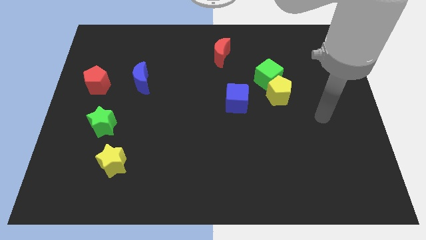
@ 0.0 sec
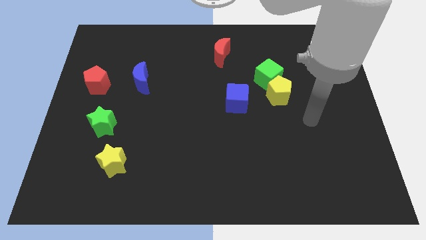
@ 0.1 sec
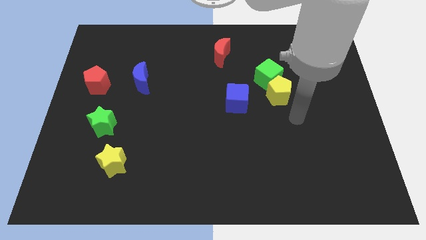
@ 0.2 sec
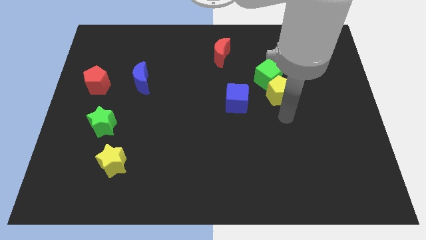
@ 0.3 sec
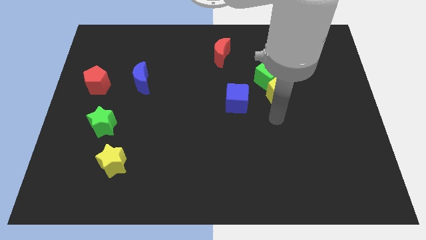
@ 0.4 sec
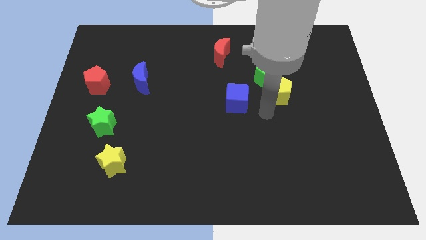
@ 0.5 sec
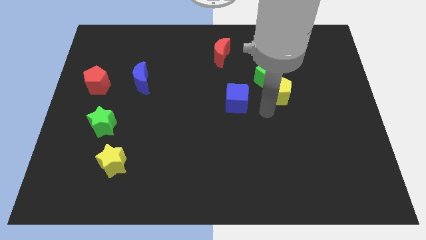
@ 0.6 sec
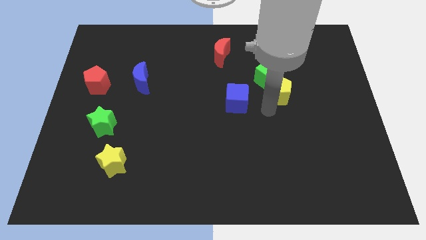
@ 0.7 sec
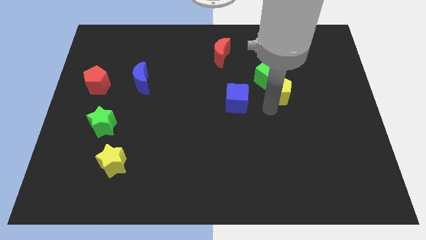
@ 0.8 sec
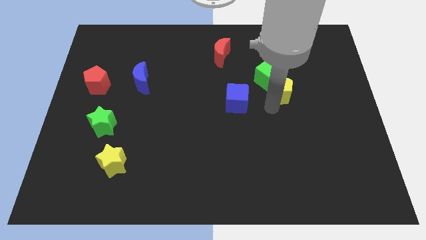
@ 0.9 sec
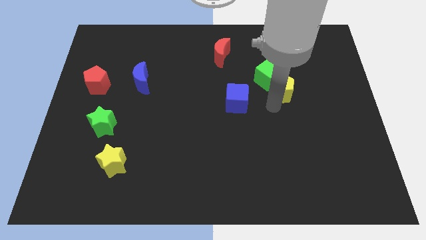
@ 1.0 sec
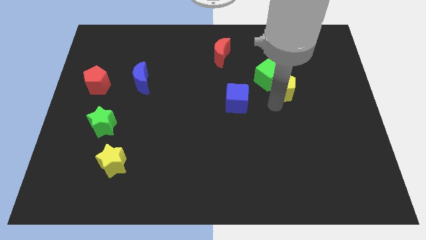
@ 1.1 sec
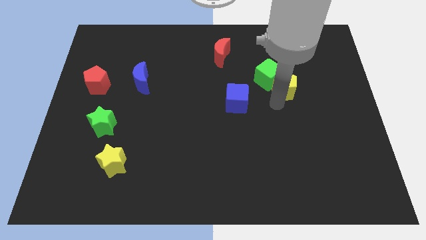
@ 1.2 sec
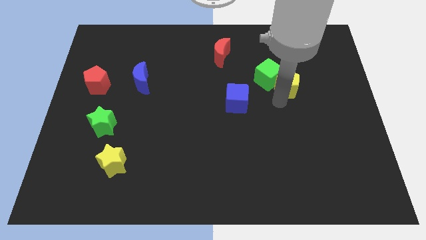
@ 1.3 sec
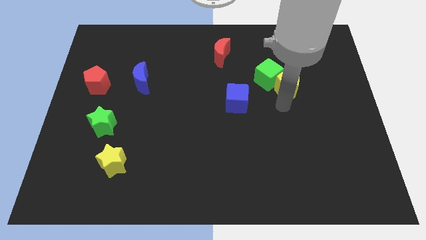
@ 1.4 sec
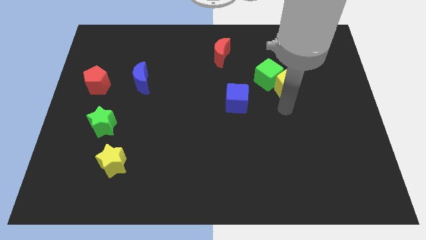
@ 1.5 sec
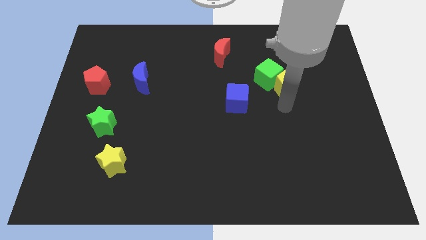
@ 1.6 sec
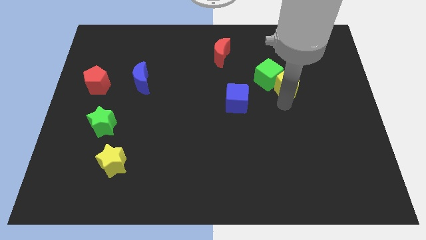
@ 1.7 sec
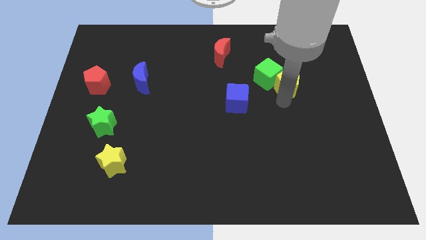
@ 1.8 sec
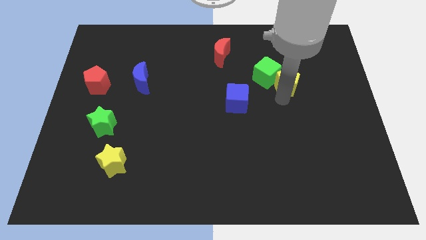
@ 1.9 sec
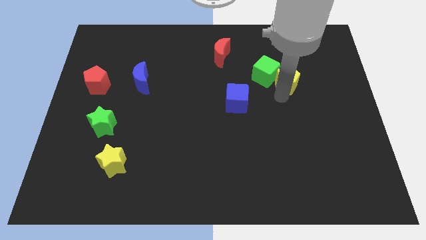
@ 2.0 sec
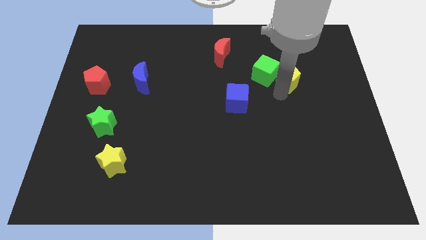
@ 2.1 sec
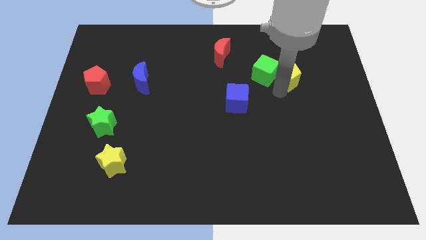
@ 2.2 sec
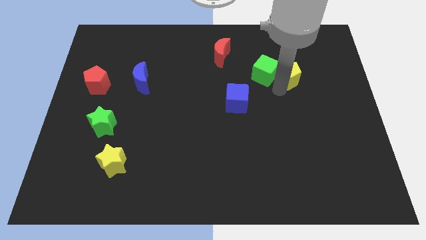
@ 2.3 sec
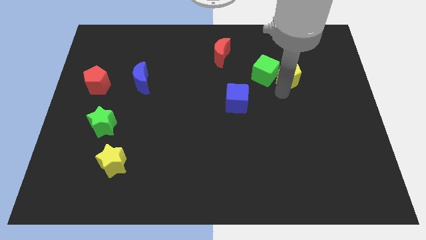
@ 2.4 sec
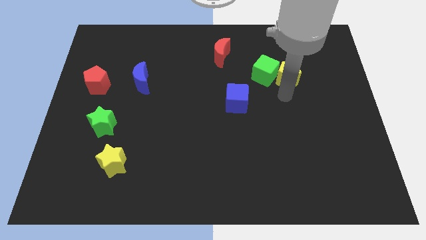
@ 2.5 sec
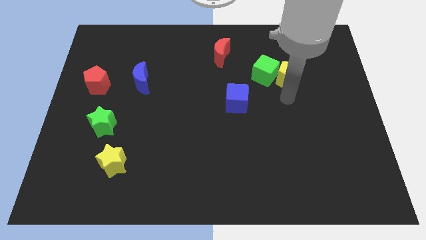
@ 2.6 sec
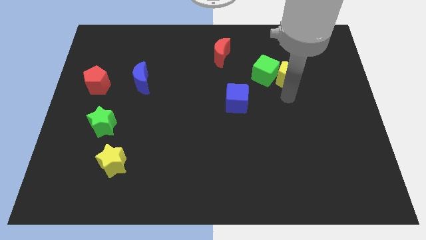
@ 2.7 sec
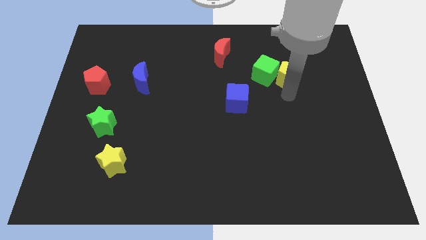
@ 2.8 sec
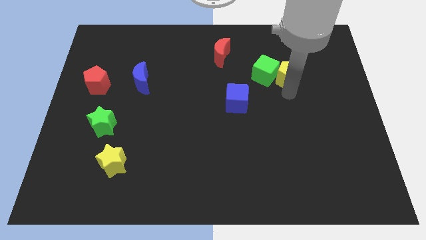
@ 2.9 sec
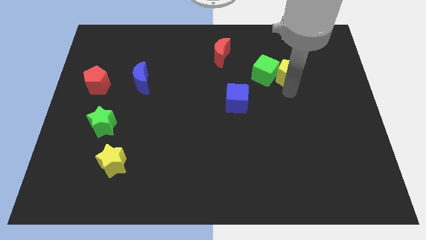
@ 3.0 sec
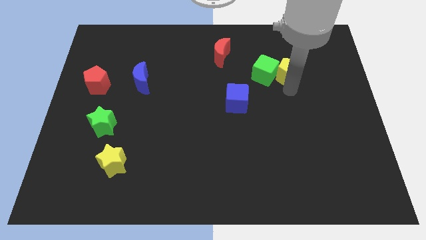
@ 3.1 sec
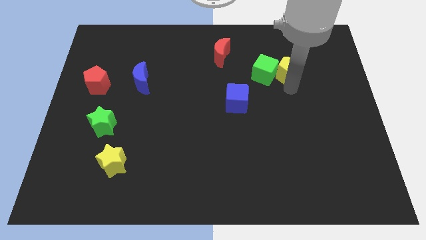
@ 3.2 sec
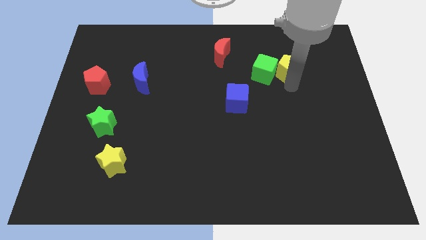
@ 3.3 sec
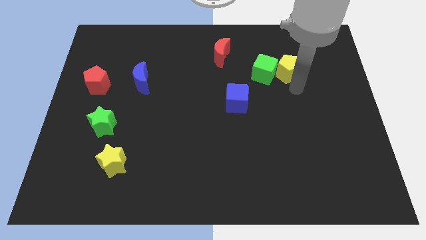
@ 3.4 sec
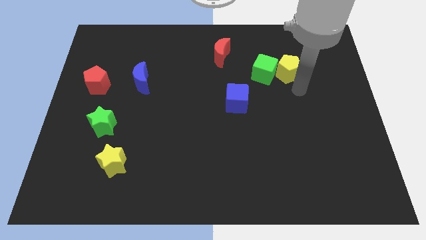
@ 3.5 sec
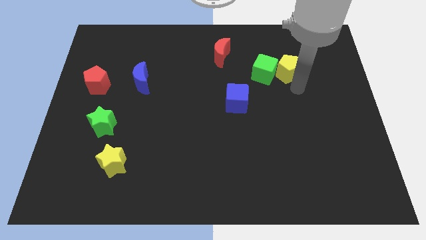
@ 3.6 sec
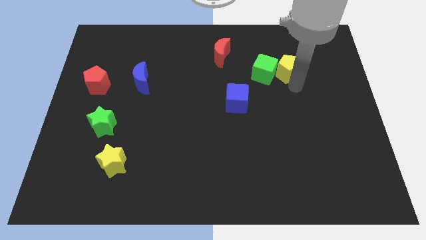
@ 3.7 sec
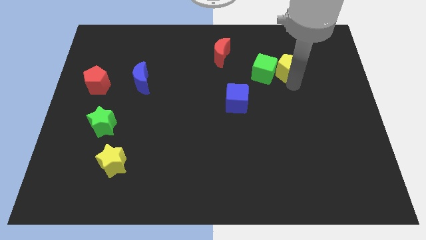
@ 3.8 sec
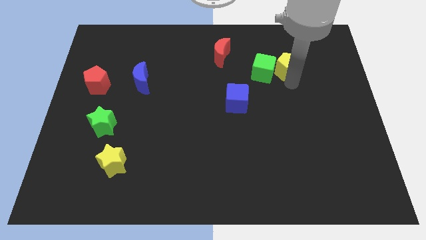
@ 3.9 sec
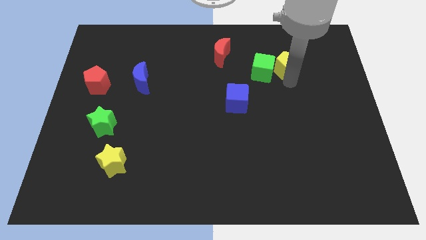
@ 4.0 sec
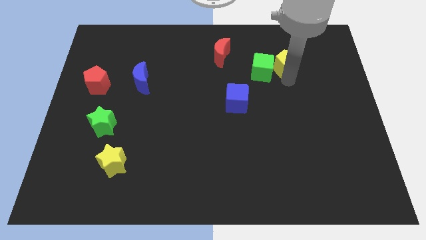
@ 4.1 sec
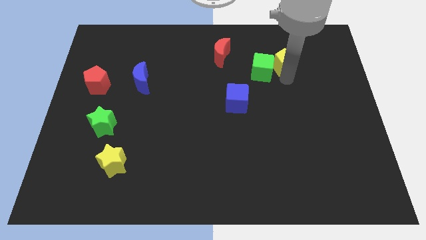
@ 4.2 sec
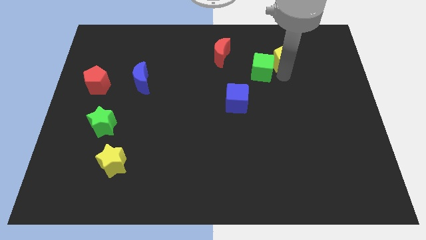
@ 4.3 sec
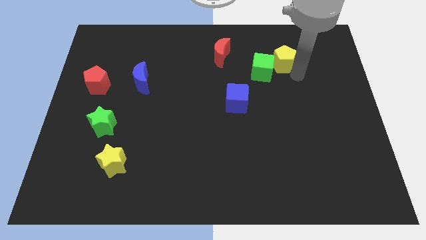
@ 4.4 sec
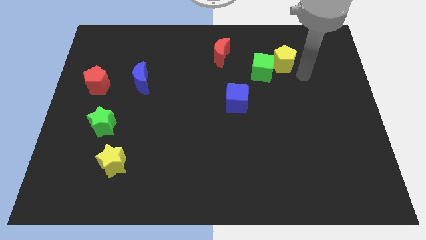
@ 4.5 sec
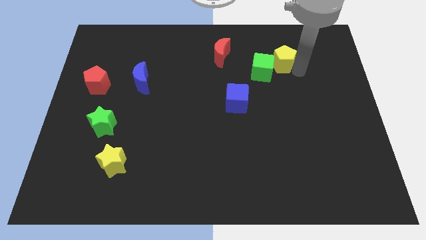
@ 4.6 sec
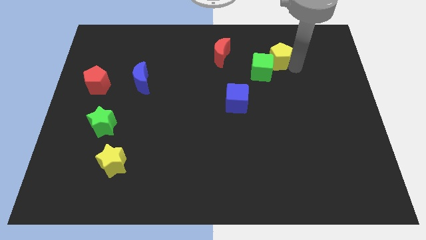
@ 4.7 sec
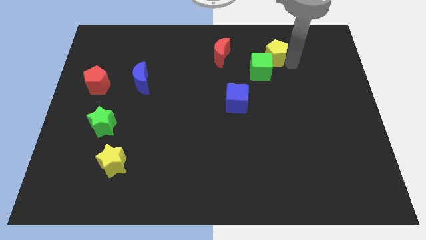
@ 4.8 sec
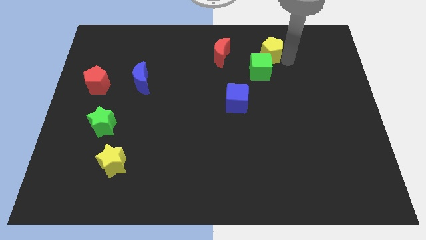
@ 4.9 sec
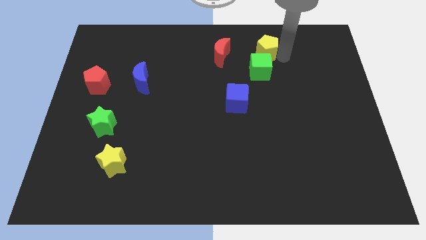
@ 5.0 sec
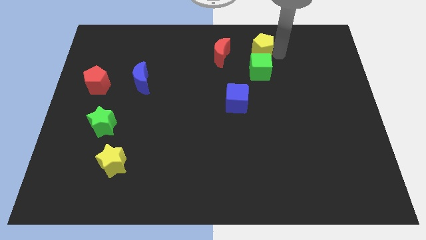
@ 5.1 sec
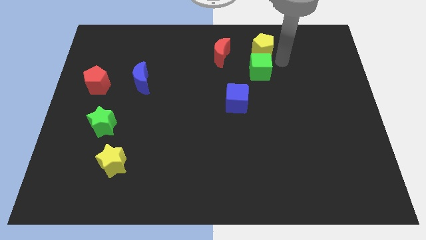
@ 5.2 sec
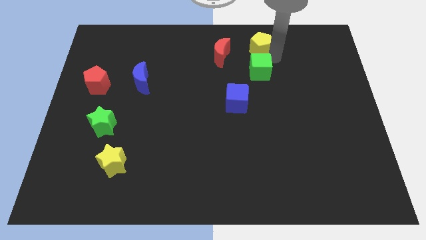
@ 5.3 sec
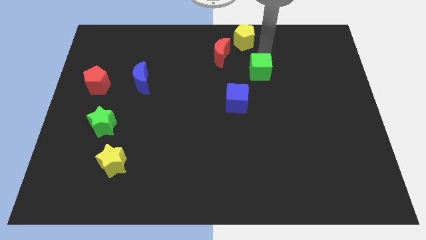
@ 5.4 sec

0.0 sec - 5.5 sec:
move the yellow pentagon to the top

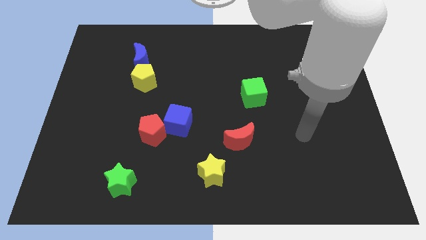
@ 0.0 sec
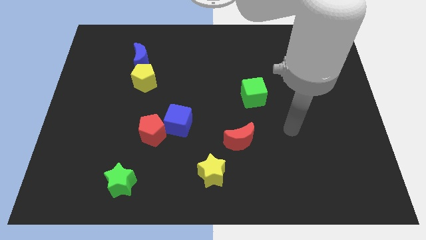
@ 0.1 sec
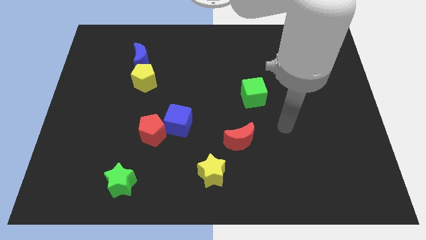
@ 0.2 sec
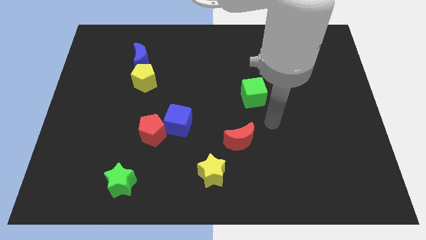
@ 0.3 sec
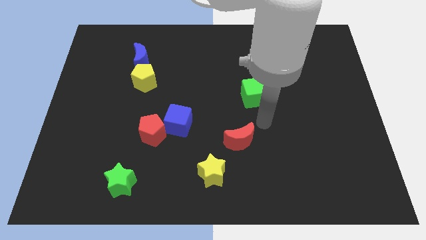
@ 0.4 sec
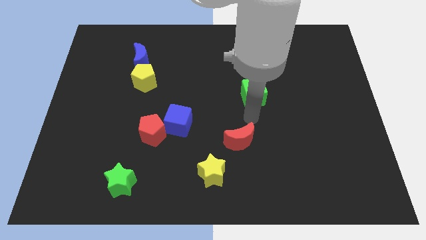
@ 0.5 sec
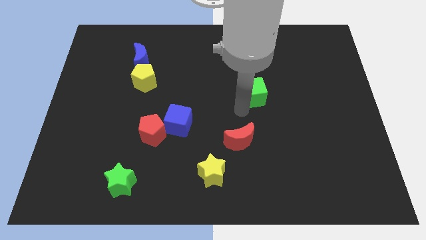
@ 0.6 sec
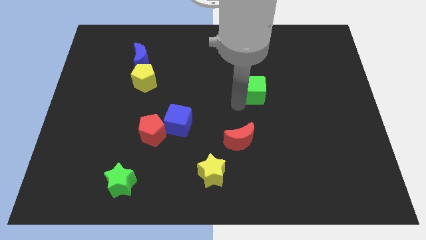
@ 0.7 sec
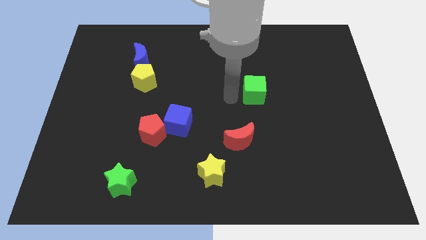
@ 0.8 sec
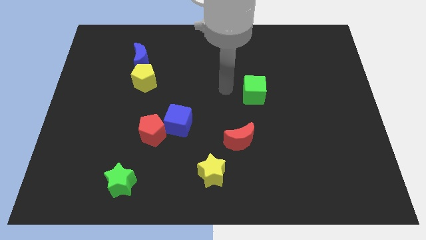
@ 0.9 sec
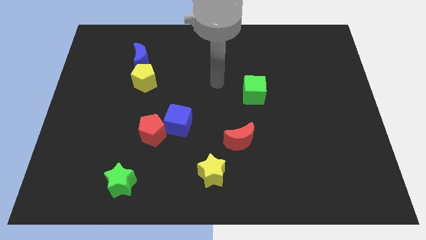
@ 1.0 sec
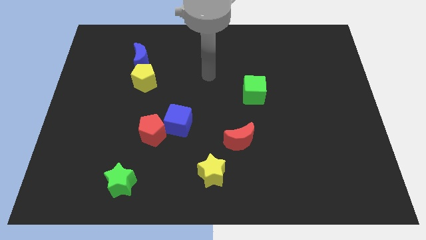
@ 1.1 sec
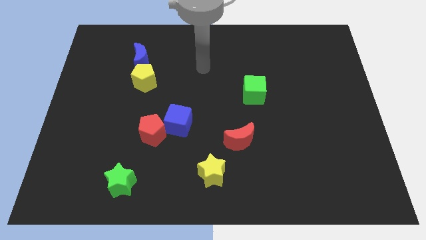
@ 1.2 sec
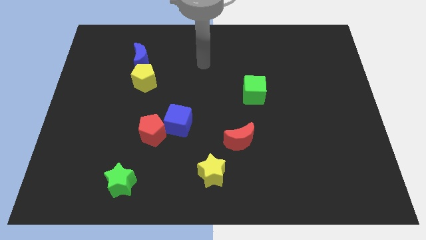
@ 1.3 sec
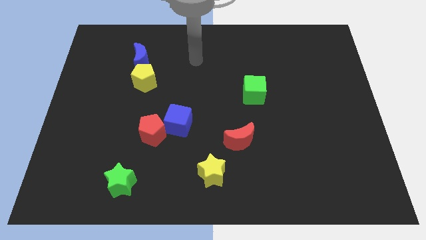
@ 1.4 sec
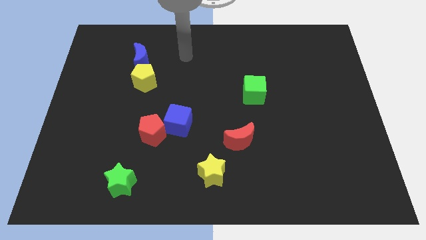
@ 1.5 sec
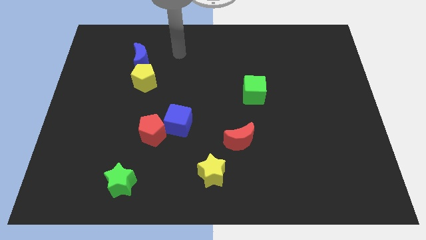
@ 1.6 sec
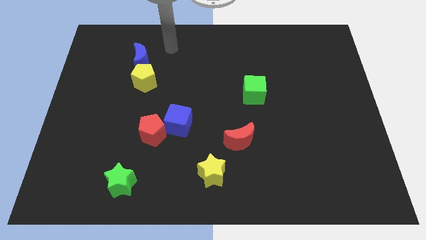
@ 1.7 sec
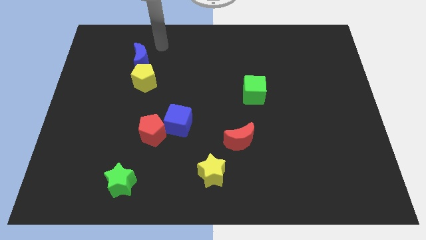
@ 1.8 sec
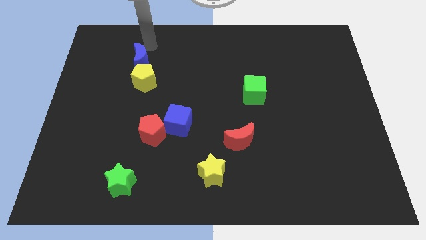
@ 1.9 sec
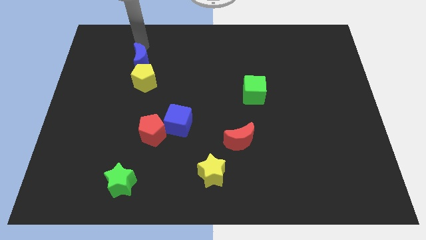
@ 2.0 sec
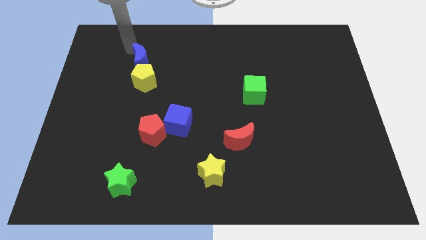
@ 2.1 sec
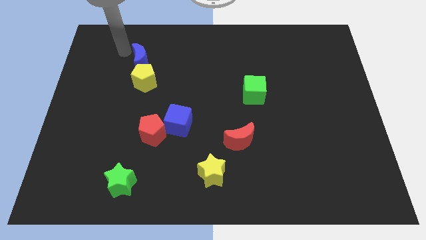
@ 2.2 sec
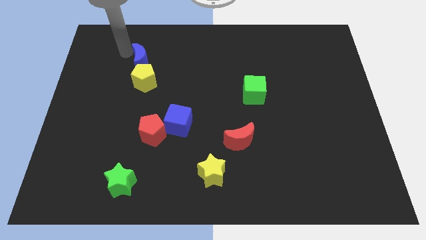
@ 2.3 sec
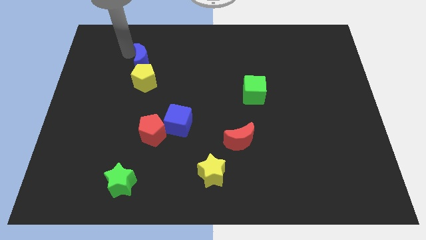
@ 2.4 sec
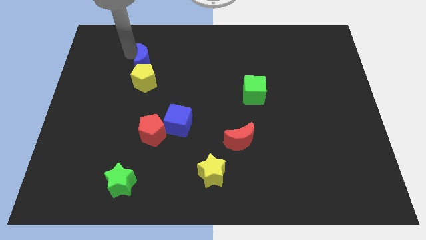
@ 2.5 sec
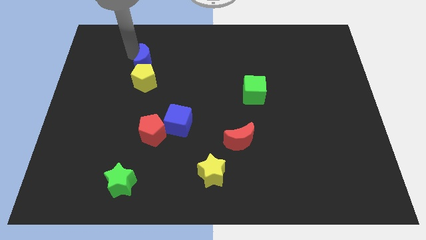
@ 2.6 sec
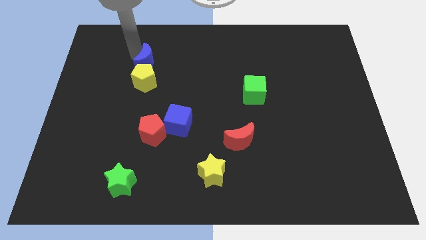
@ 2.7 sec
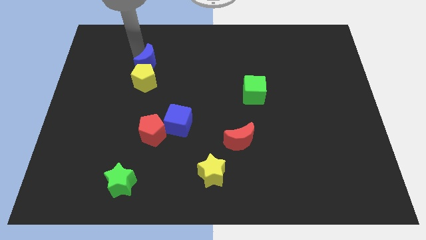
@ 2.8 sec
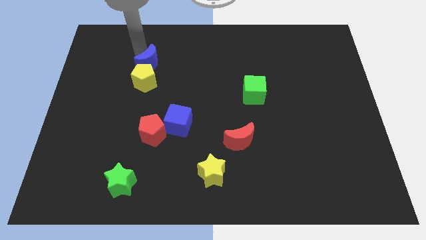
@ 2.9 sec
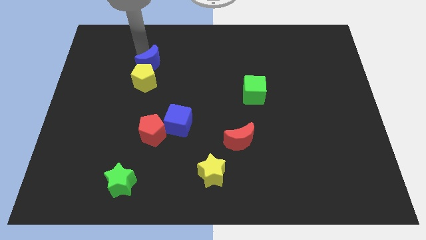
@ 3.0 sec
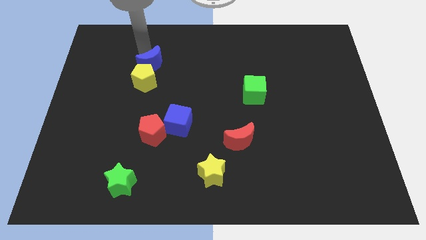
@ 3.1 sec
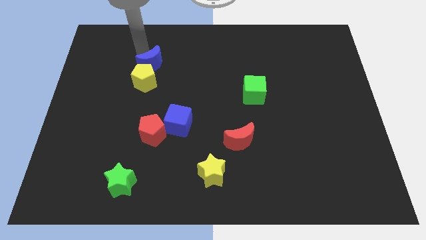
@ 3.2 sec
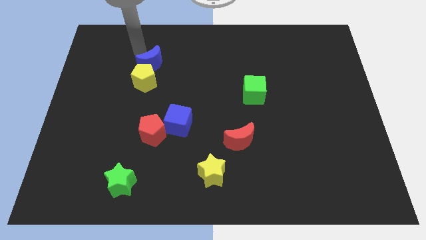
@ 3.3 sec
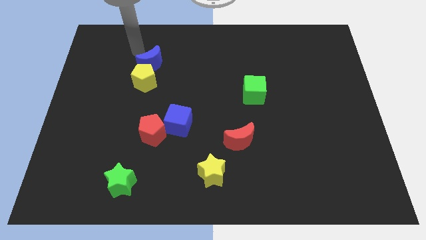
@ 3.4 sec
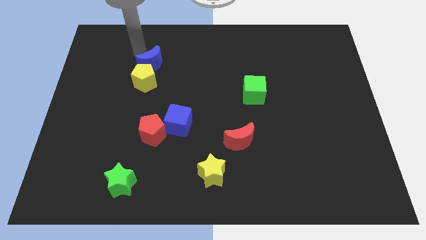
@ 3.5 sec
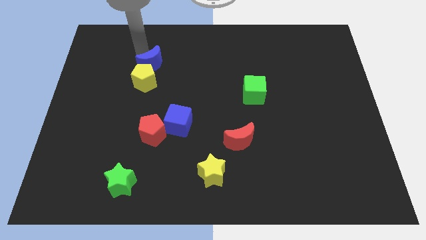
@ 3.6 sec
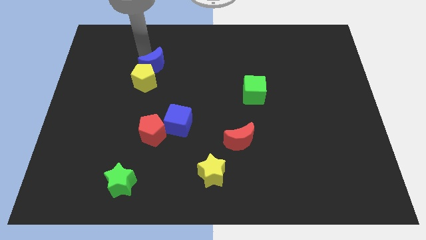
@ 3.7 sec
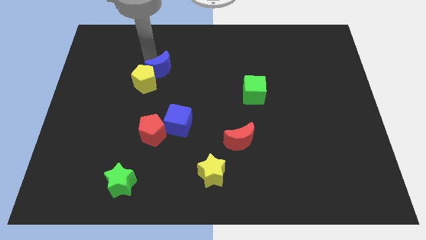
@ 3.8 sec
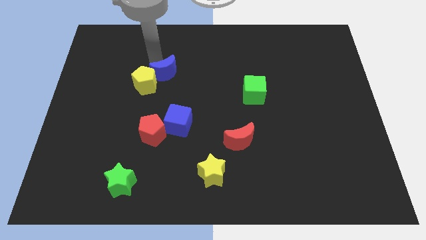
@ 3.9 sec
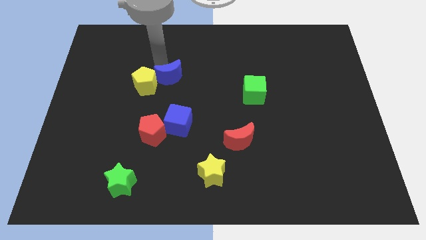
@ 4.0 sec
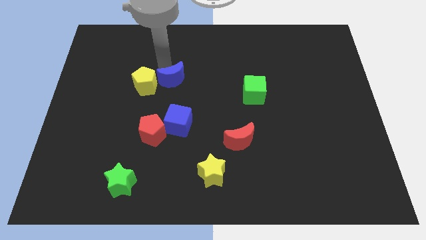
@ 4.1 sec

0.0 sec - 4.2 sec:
slide the blue moon to the center
